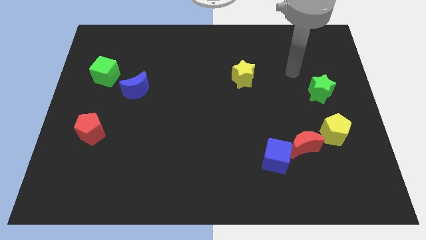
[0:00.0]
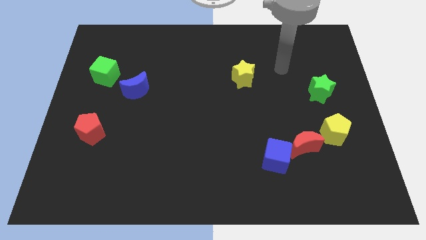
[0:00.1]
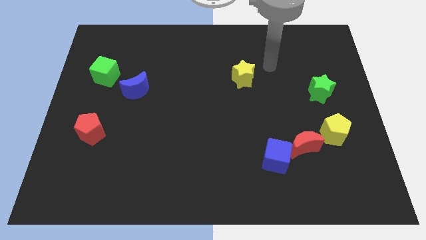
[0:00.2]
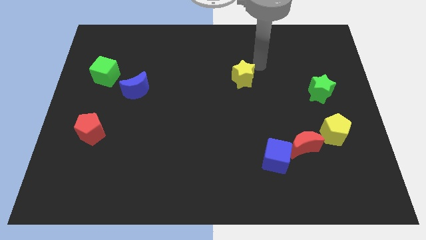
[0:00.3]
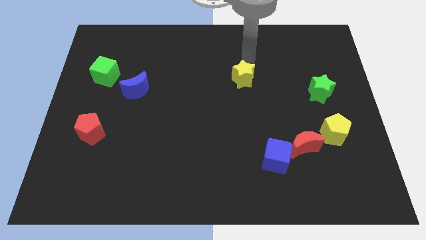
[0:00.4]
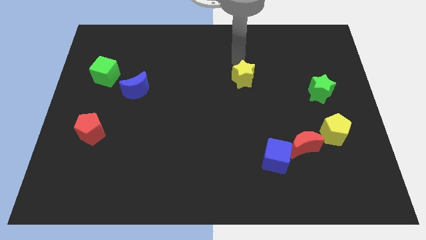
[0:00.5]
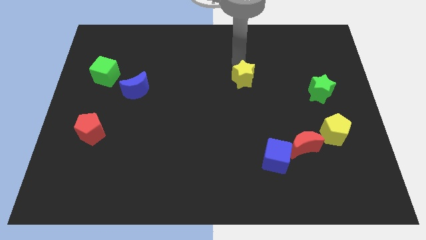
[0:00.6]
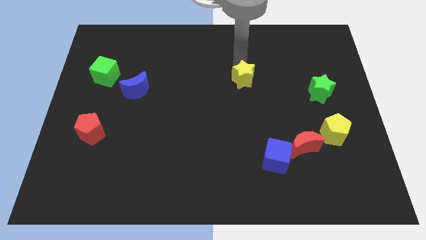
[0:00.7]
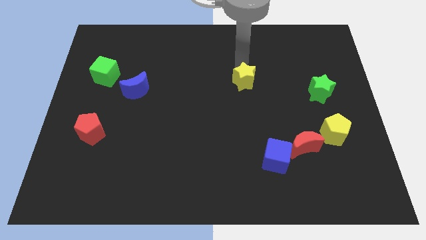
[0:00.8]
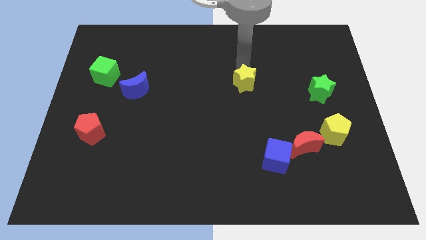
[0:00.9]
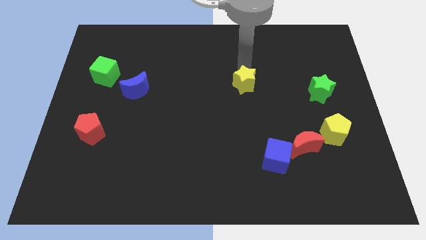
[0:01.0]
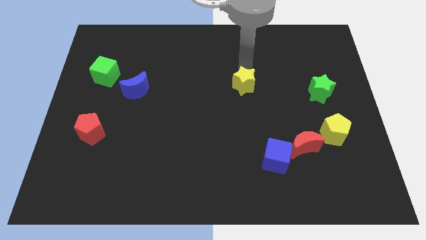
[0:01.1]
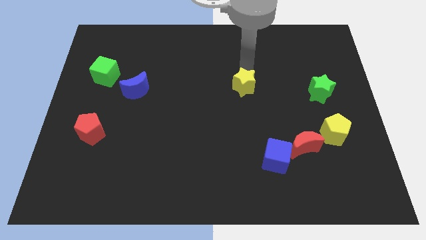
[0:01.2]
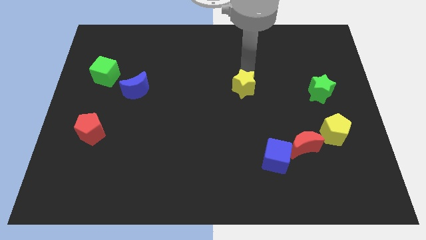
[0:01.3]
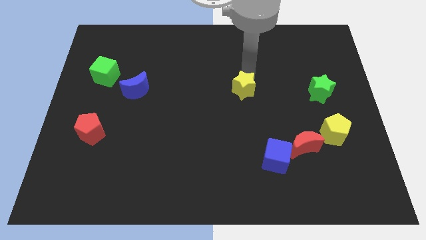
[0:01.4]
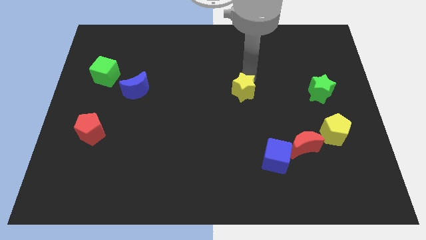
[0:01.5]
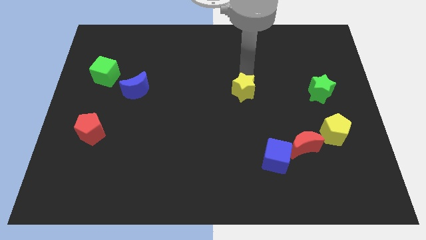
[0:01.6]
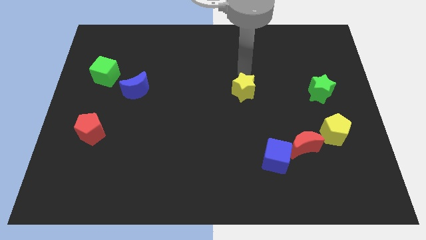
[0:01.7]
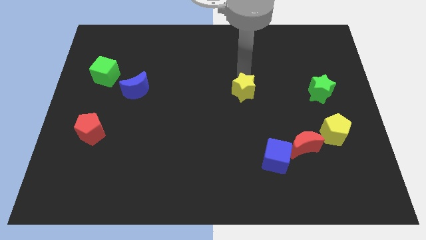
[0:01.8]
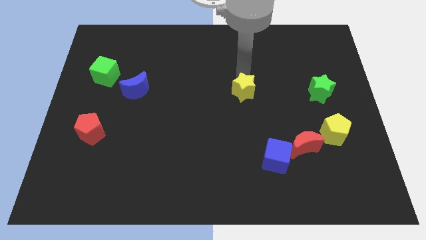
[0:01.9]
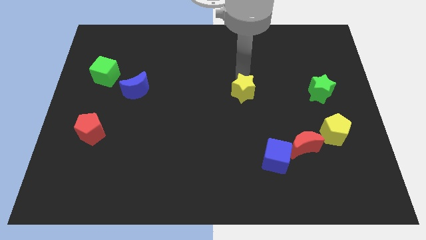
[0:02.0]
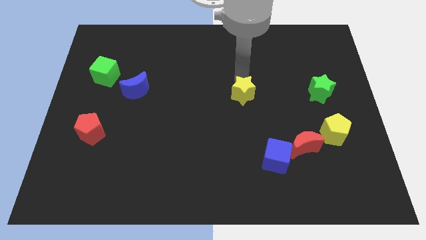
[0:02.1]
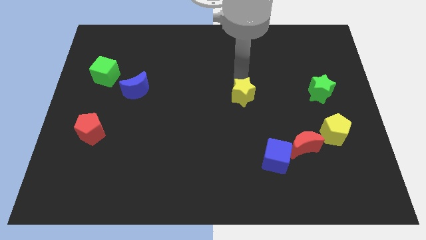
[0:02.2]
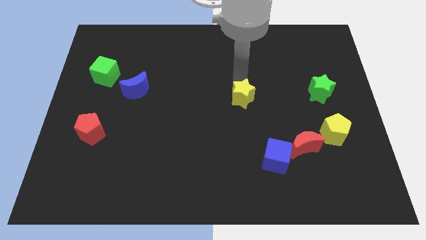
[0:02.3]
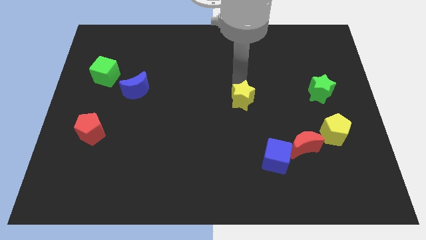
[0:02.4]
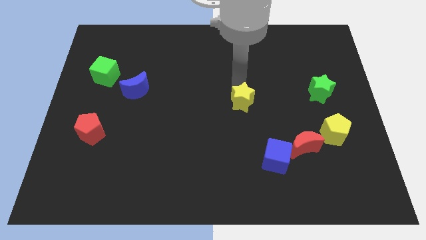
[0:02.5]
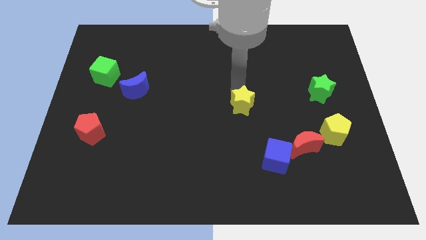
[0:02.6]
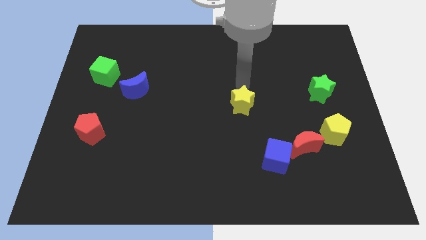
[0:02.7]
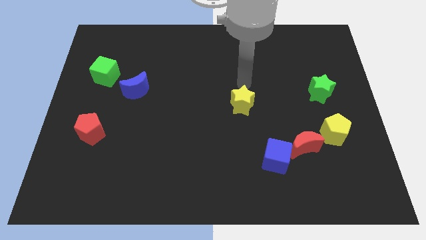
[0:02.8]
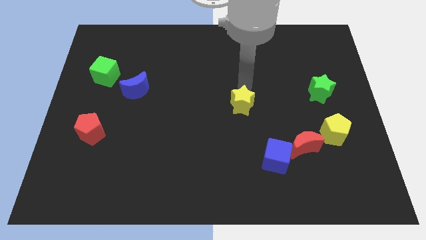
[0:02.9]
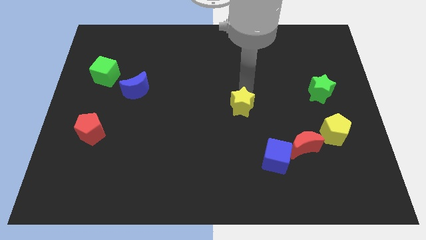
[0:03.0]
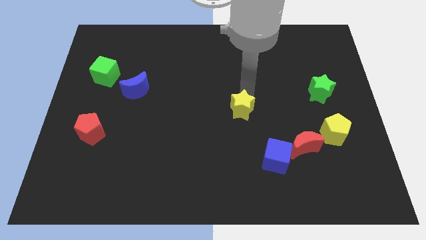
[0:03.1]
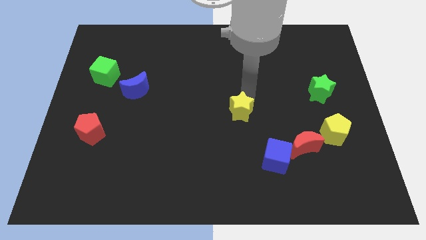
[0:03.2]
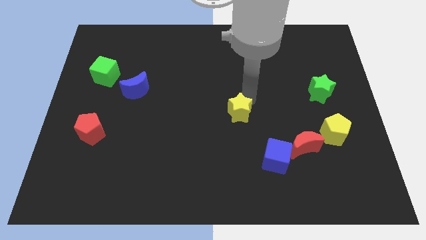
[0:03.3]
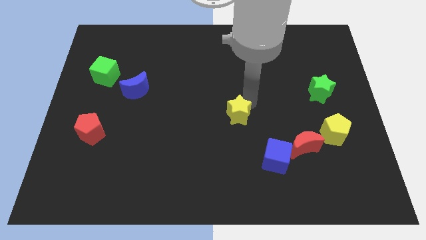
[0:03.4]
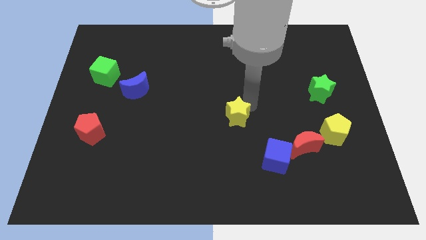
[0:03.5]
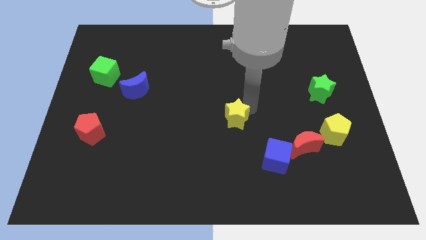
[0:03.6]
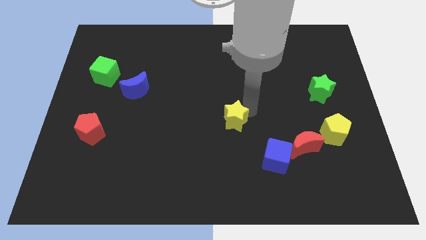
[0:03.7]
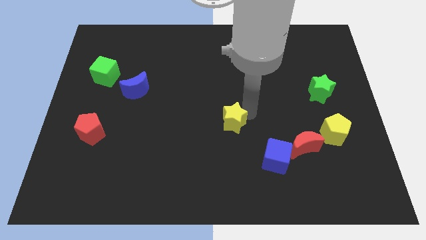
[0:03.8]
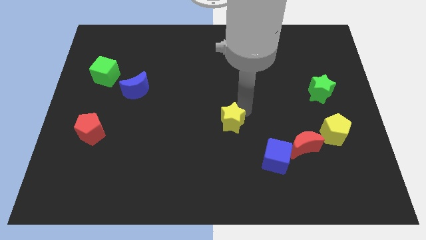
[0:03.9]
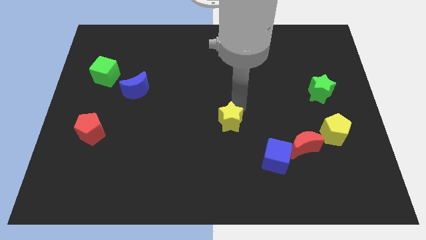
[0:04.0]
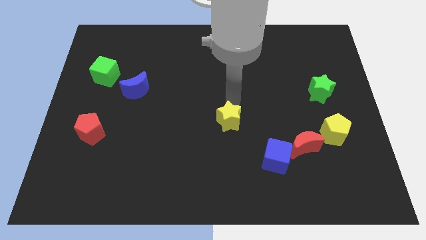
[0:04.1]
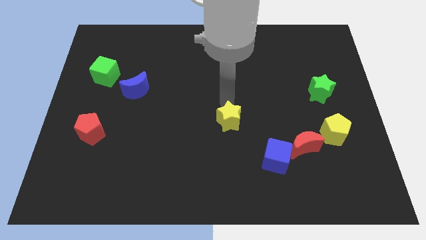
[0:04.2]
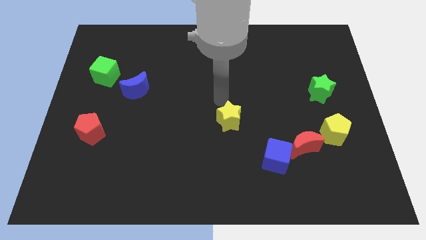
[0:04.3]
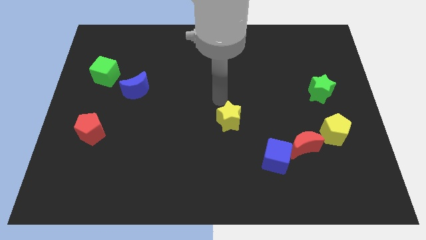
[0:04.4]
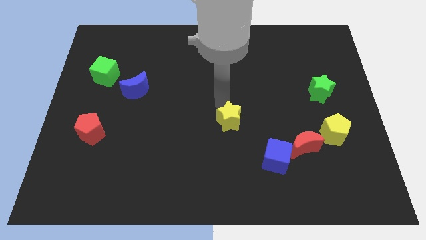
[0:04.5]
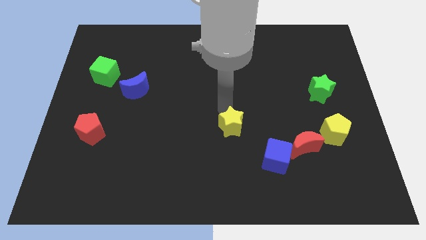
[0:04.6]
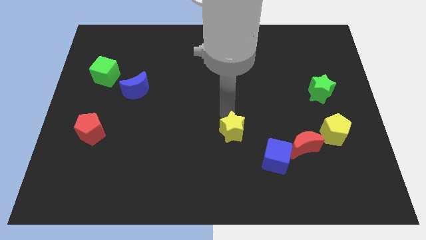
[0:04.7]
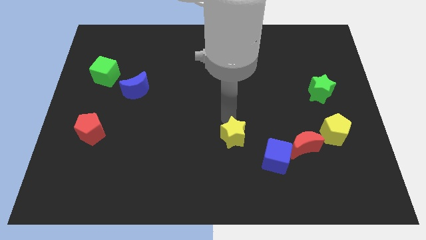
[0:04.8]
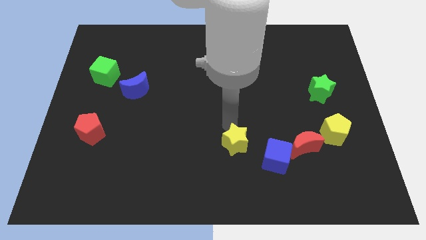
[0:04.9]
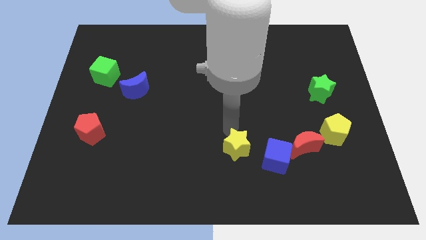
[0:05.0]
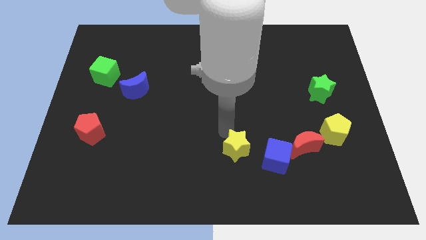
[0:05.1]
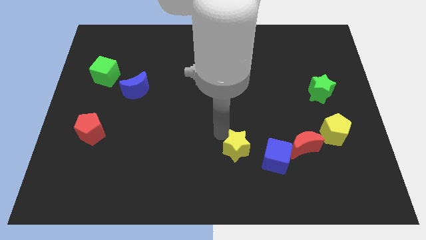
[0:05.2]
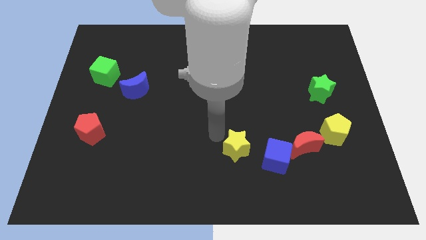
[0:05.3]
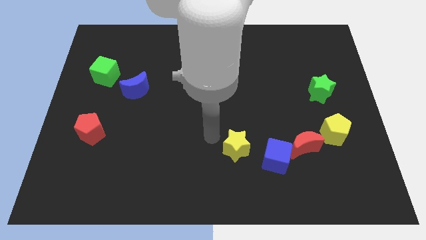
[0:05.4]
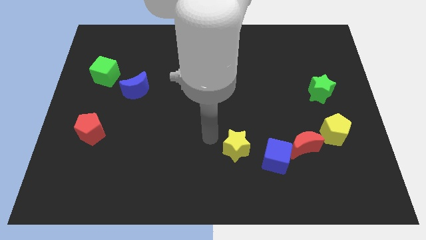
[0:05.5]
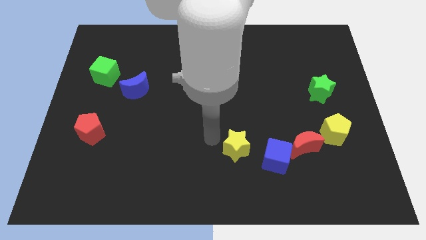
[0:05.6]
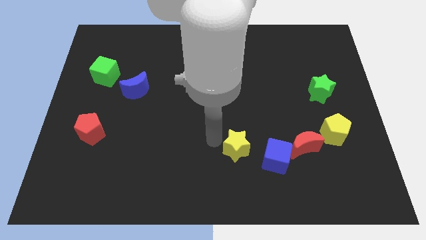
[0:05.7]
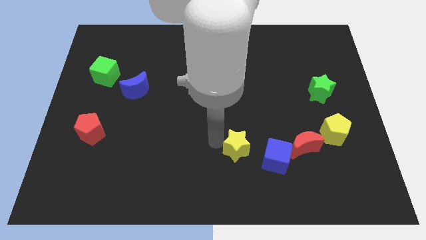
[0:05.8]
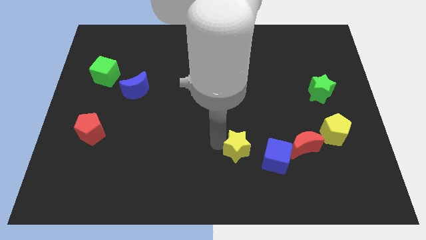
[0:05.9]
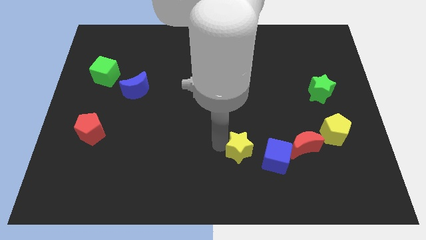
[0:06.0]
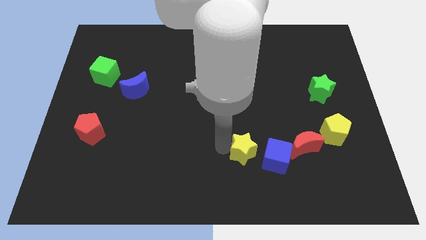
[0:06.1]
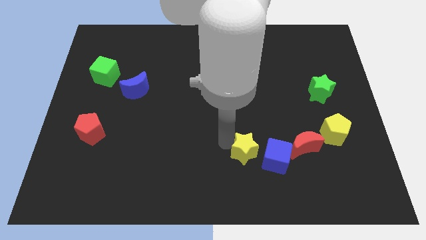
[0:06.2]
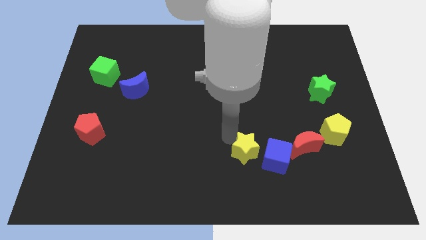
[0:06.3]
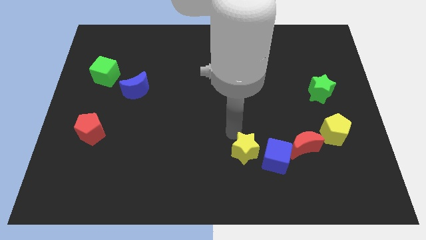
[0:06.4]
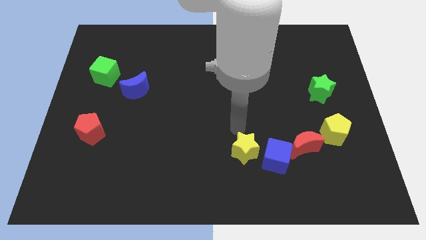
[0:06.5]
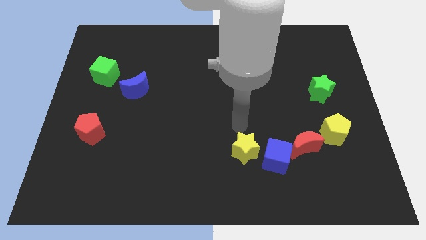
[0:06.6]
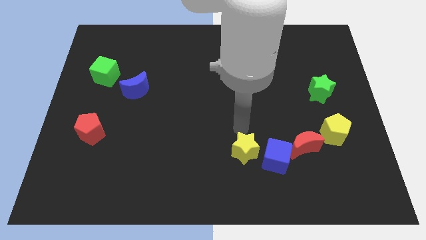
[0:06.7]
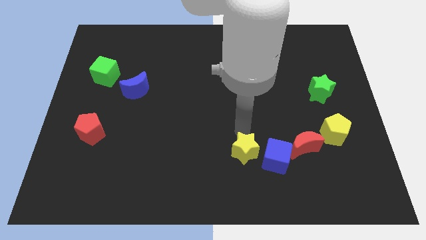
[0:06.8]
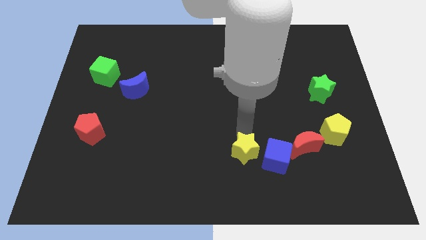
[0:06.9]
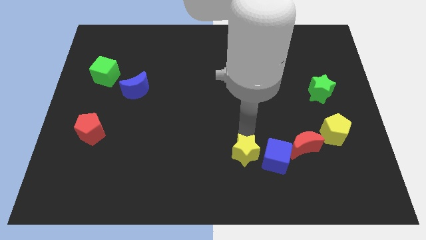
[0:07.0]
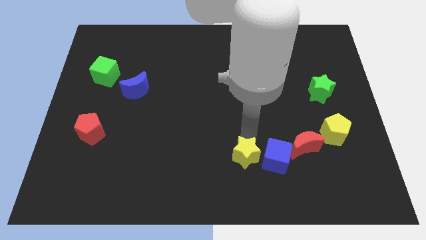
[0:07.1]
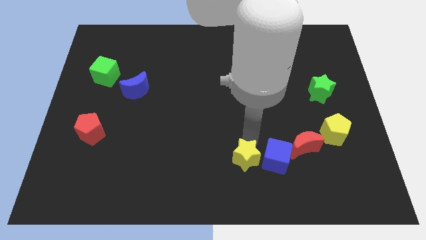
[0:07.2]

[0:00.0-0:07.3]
slide the yellow star to the bottom left side of the blue cube
